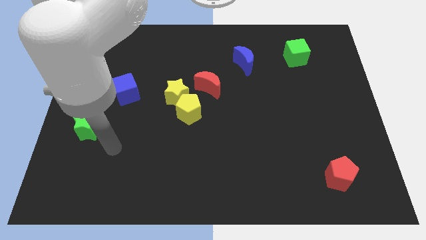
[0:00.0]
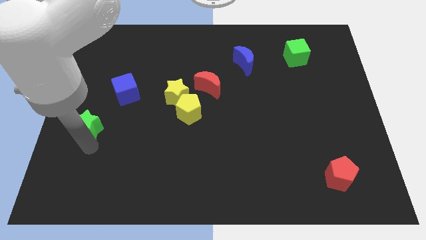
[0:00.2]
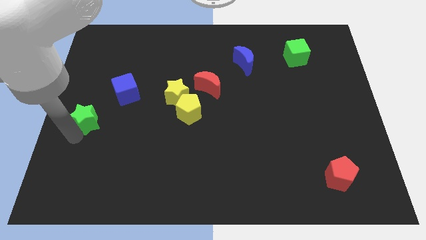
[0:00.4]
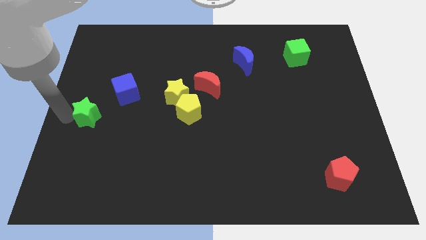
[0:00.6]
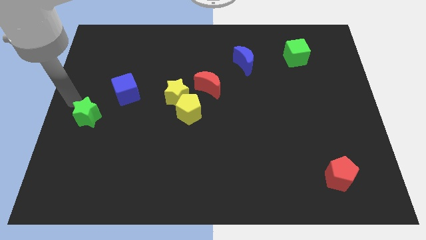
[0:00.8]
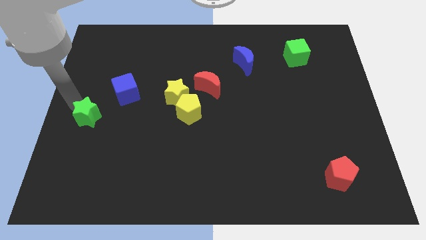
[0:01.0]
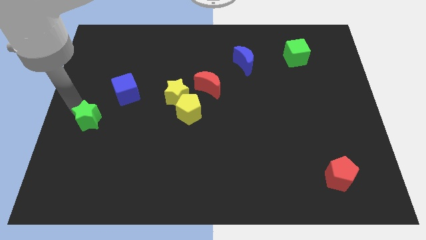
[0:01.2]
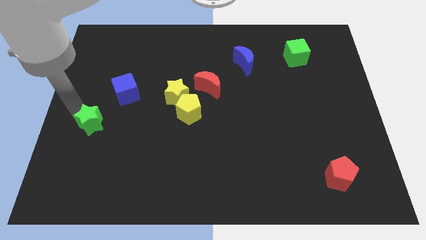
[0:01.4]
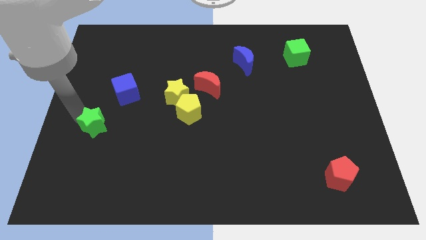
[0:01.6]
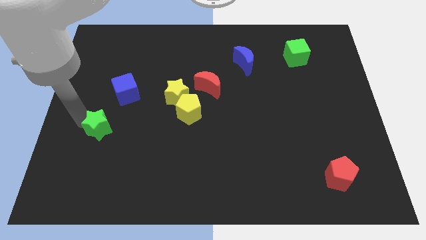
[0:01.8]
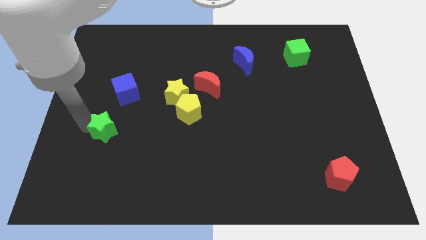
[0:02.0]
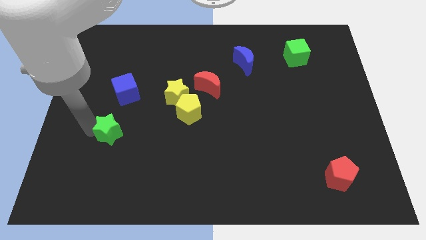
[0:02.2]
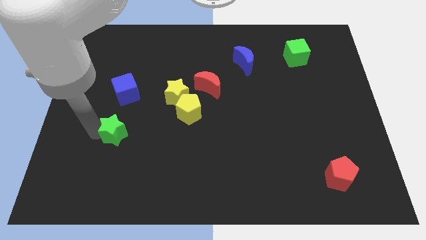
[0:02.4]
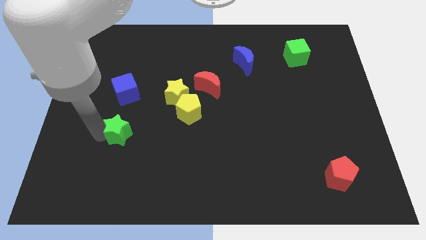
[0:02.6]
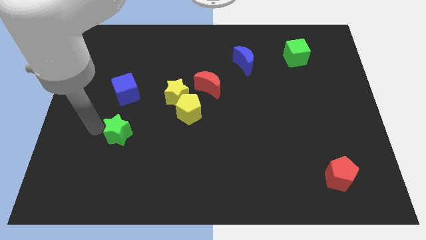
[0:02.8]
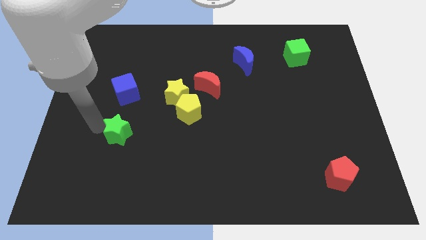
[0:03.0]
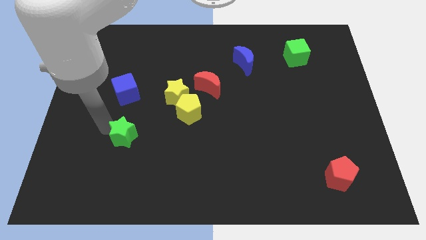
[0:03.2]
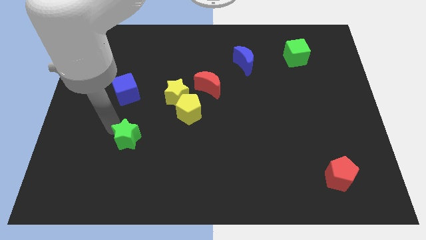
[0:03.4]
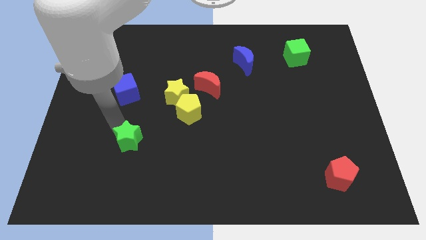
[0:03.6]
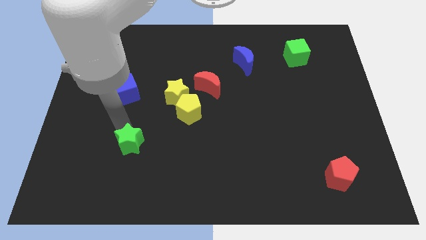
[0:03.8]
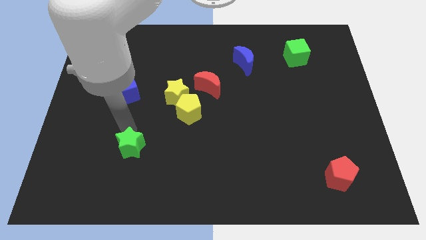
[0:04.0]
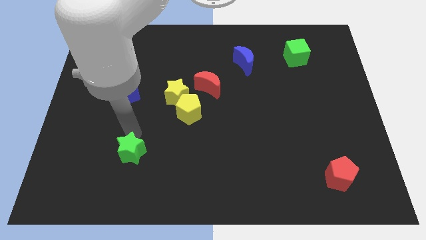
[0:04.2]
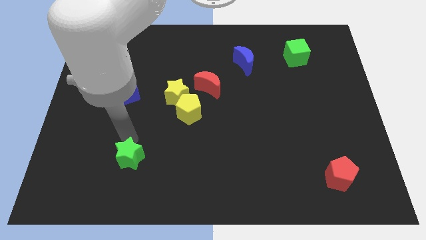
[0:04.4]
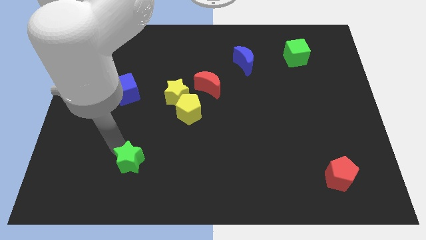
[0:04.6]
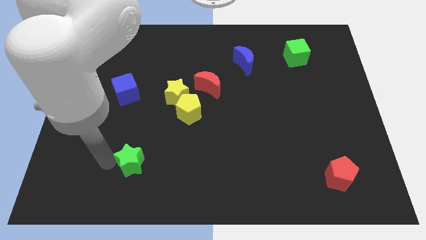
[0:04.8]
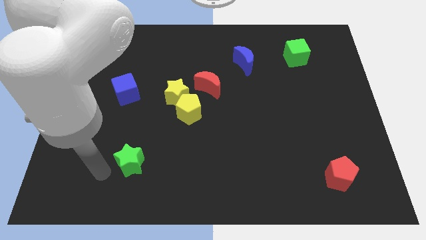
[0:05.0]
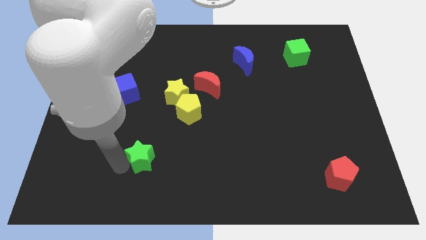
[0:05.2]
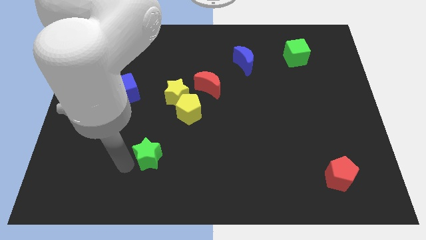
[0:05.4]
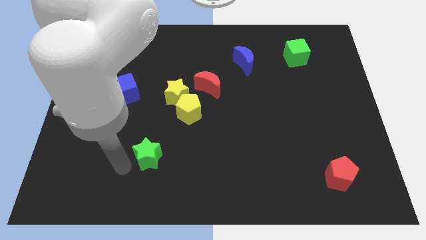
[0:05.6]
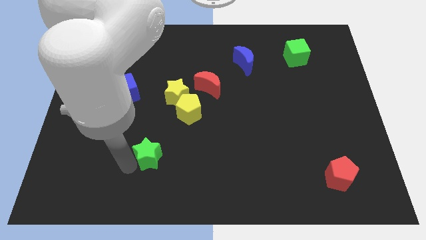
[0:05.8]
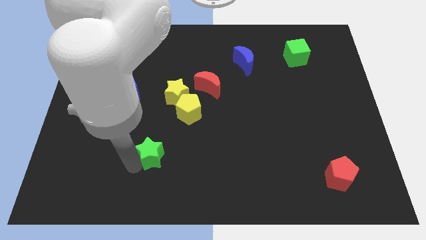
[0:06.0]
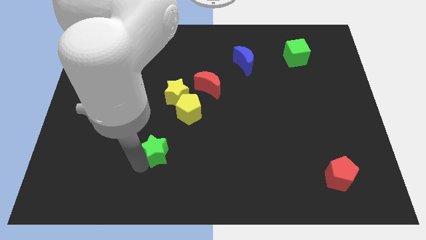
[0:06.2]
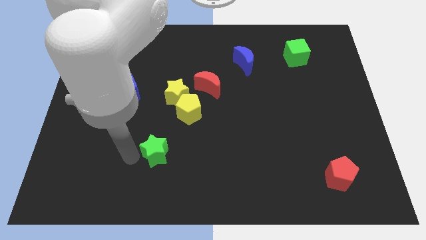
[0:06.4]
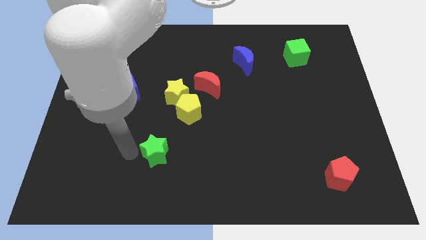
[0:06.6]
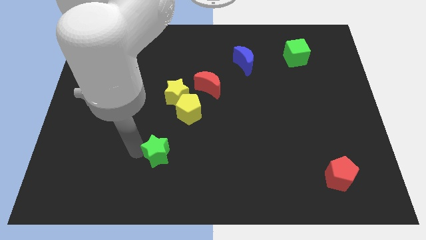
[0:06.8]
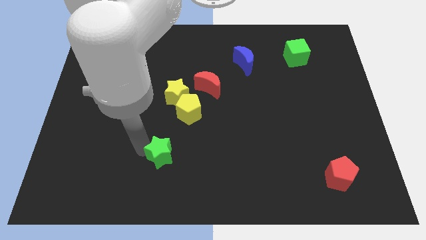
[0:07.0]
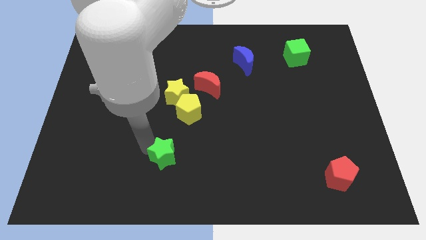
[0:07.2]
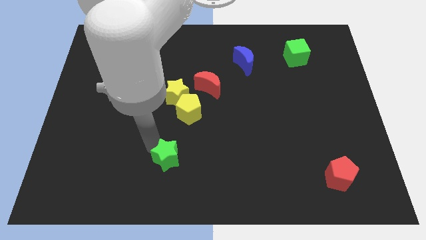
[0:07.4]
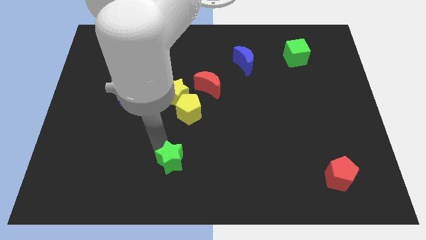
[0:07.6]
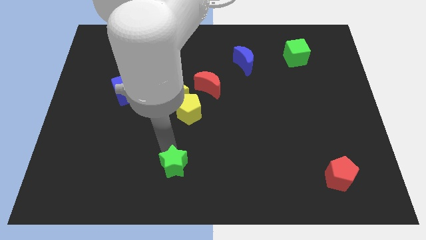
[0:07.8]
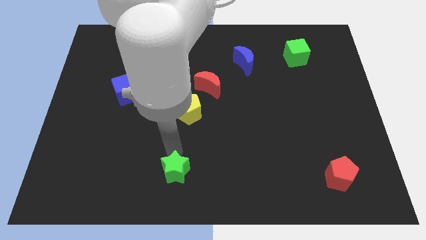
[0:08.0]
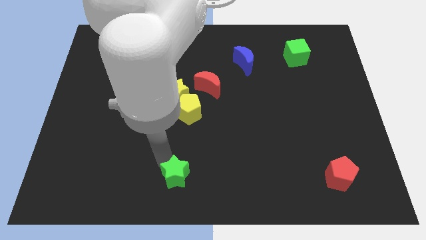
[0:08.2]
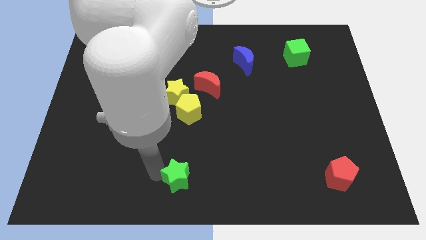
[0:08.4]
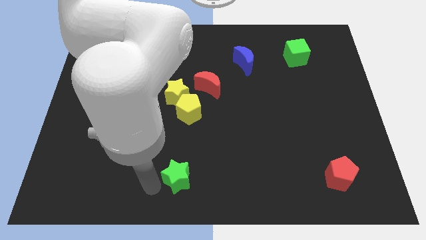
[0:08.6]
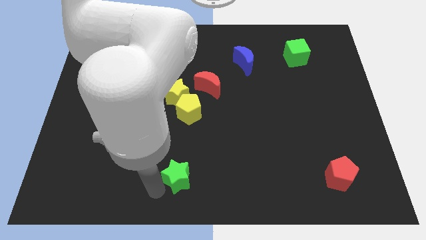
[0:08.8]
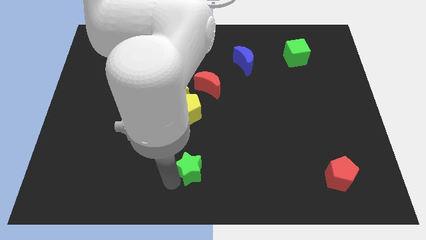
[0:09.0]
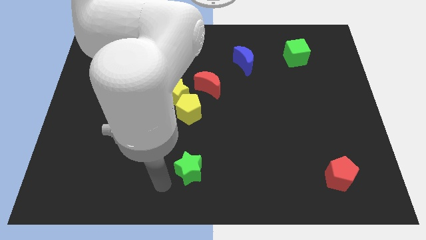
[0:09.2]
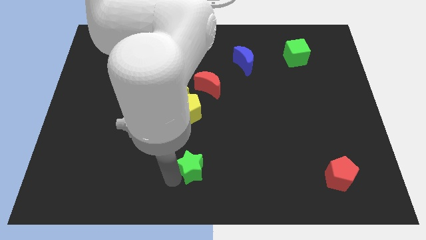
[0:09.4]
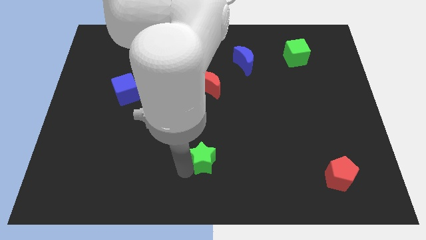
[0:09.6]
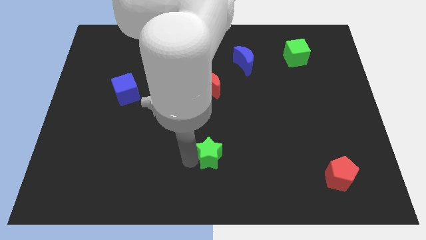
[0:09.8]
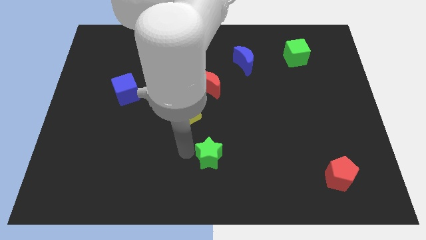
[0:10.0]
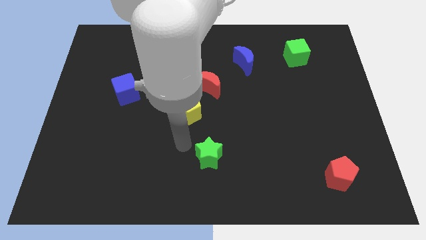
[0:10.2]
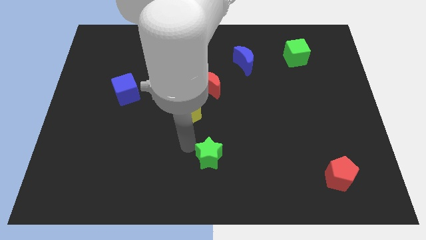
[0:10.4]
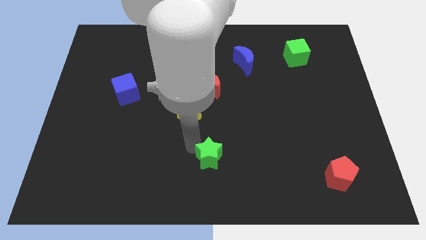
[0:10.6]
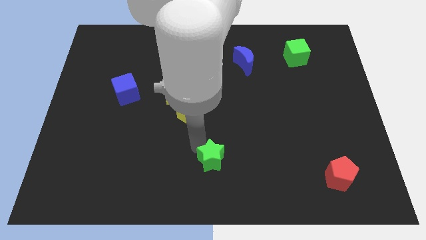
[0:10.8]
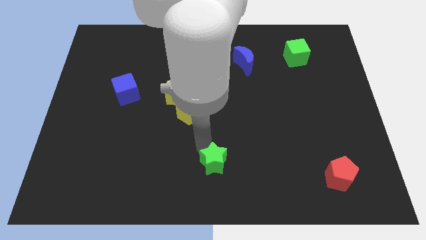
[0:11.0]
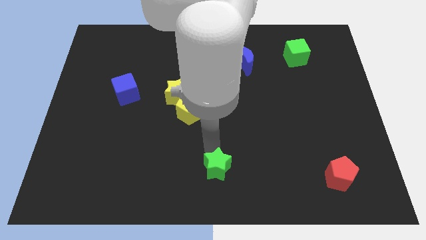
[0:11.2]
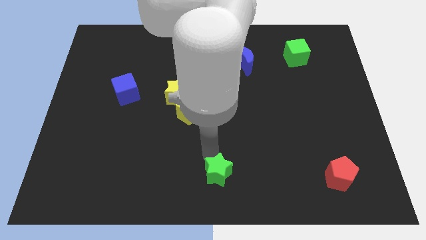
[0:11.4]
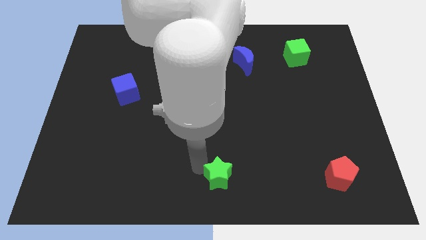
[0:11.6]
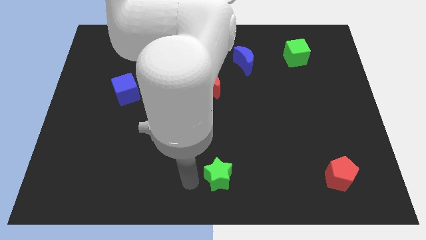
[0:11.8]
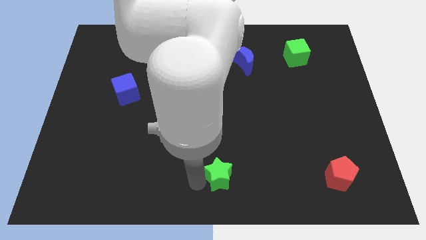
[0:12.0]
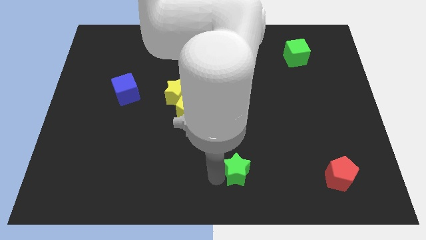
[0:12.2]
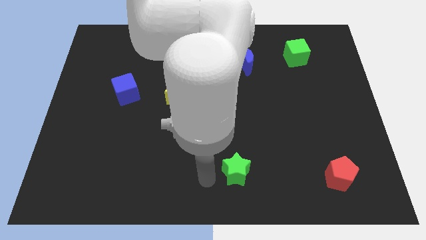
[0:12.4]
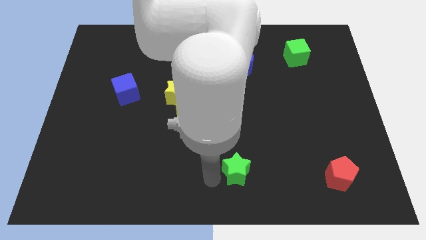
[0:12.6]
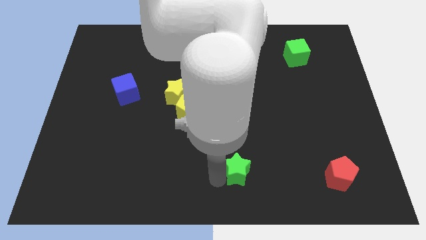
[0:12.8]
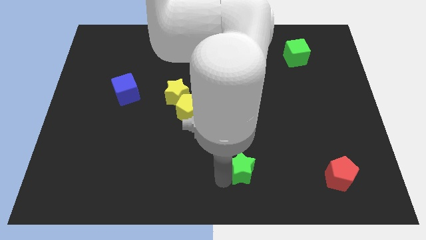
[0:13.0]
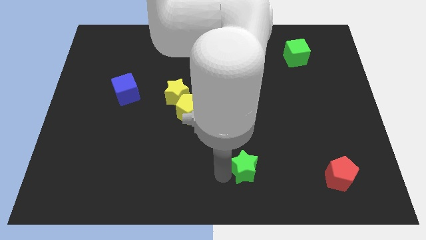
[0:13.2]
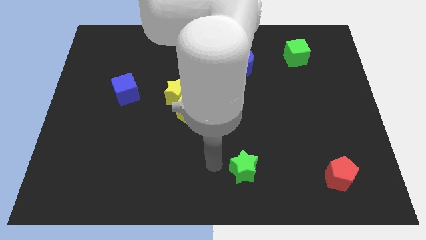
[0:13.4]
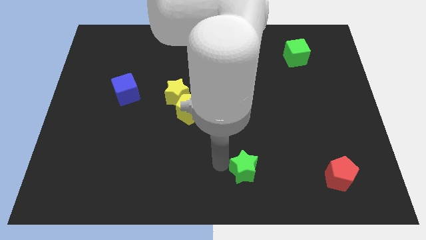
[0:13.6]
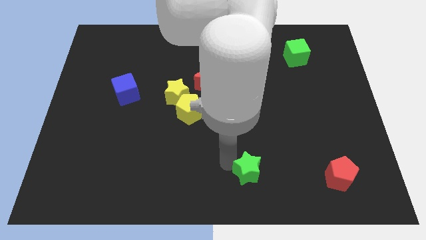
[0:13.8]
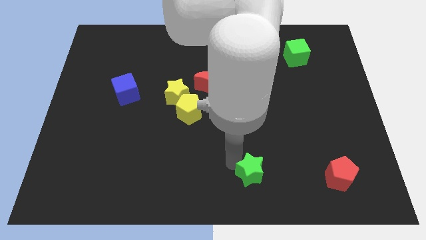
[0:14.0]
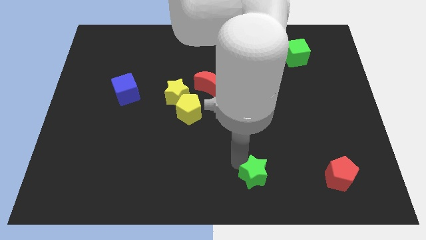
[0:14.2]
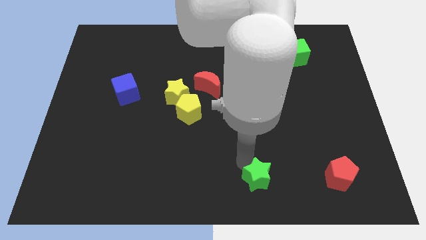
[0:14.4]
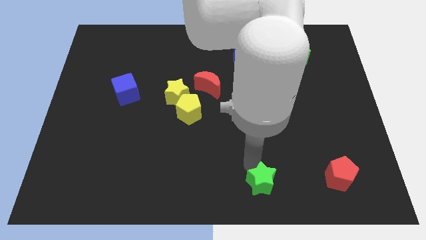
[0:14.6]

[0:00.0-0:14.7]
slide the green star left of the red pentagon

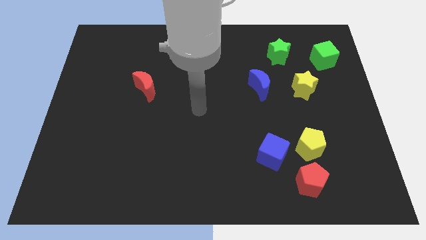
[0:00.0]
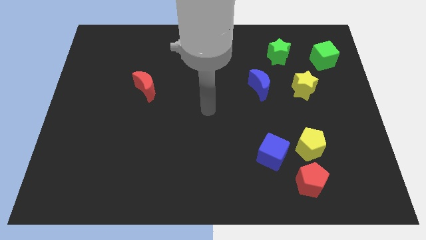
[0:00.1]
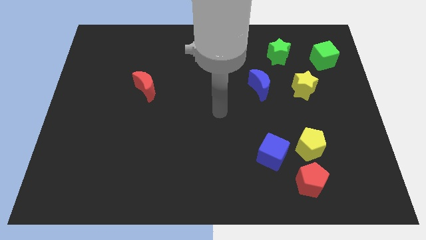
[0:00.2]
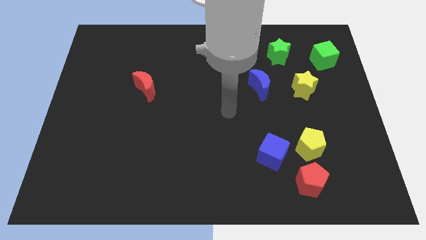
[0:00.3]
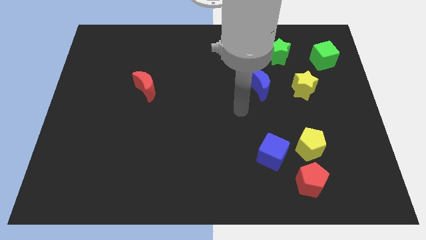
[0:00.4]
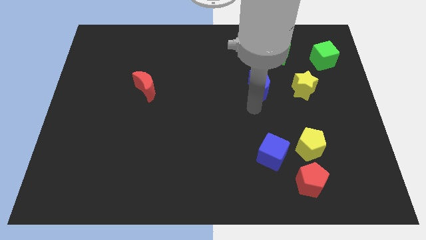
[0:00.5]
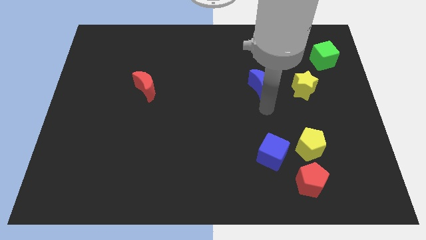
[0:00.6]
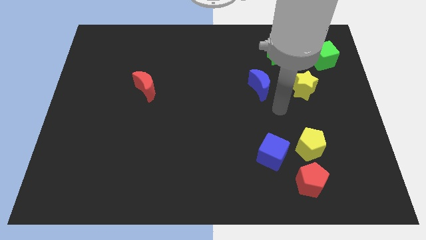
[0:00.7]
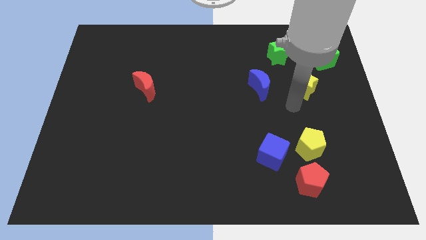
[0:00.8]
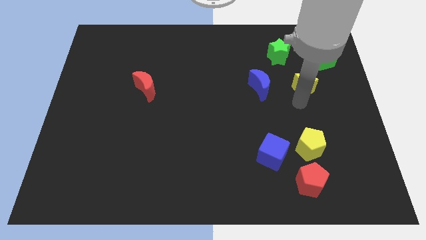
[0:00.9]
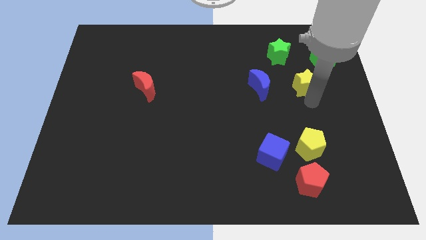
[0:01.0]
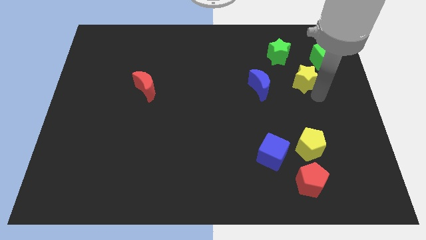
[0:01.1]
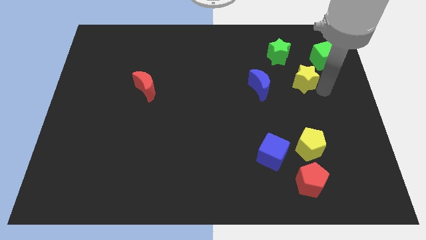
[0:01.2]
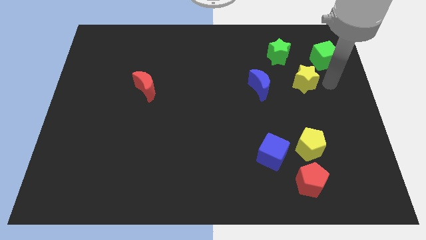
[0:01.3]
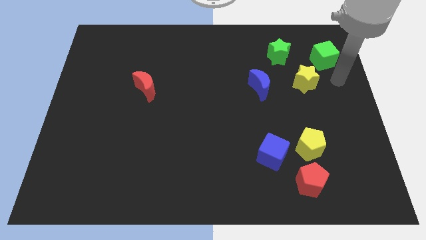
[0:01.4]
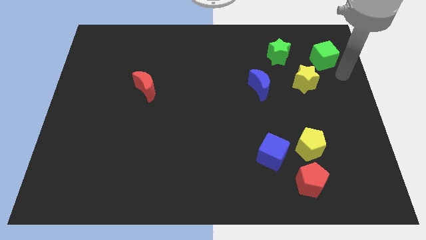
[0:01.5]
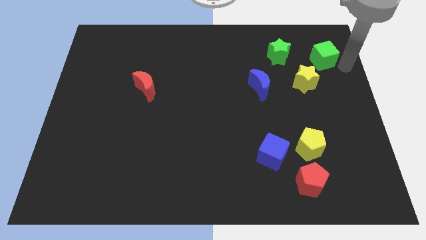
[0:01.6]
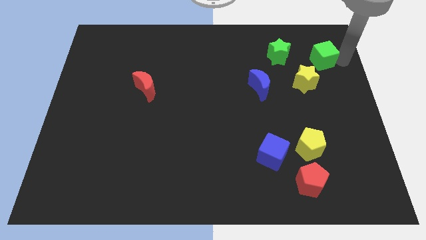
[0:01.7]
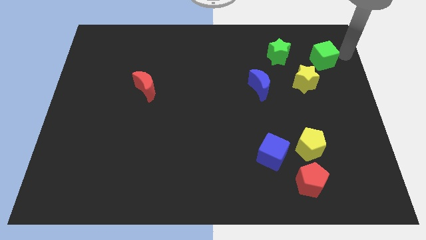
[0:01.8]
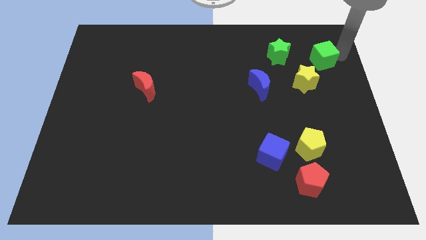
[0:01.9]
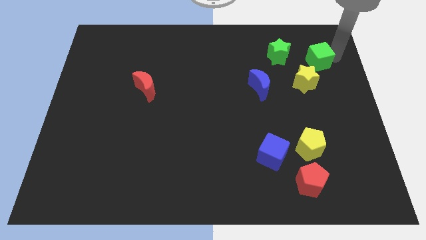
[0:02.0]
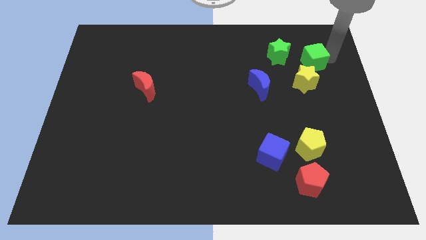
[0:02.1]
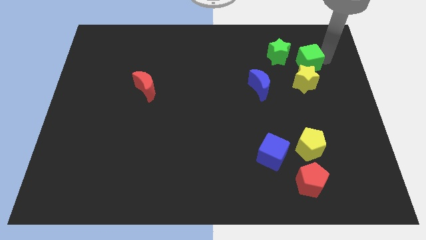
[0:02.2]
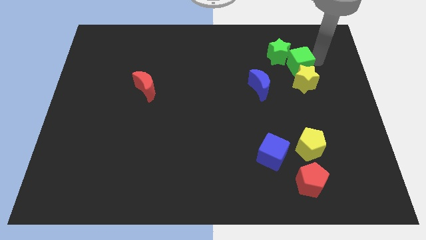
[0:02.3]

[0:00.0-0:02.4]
slide the green cube diagonally up and to the left of the yellow star
